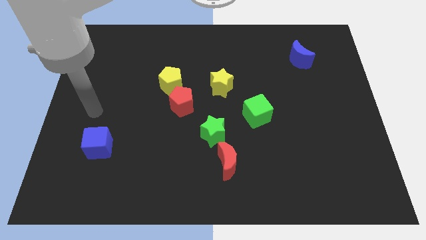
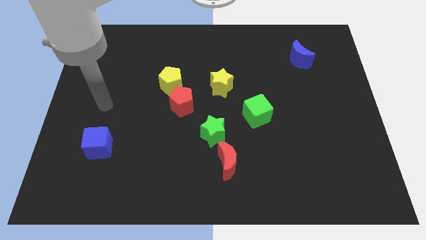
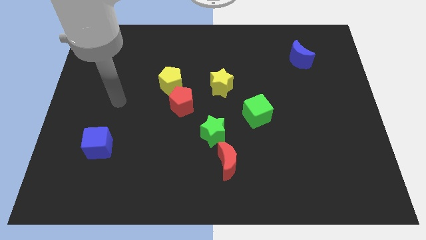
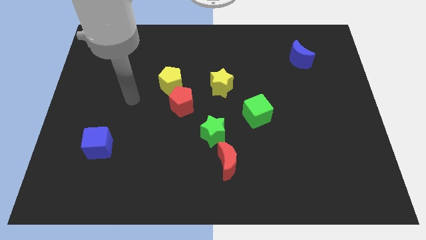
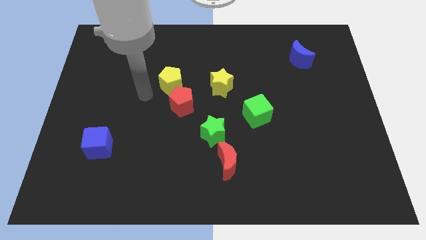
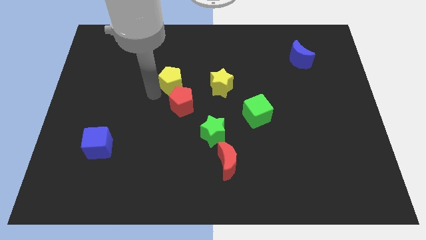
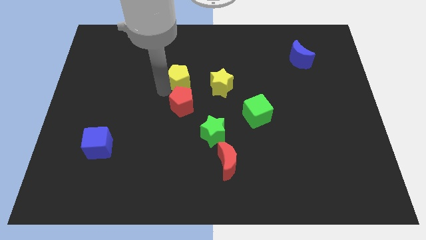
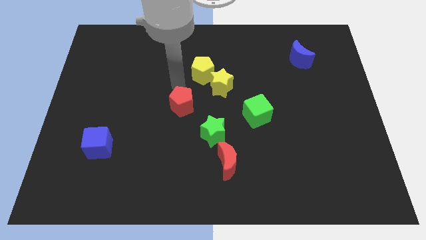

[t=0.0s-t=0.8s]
move the red pentagon away from the yellow pentagon

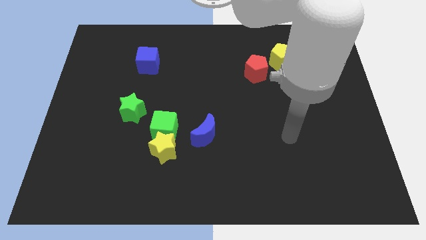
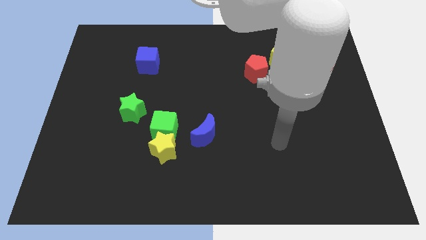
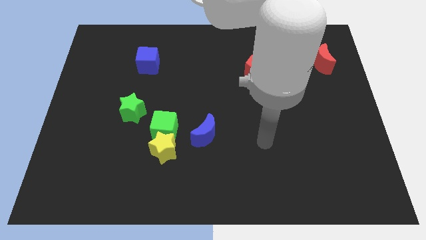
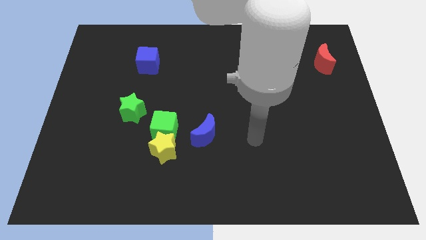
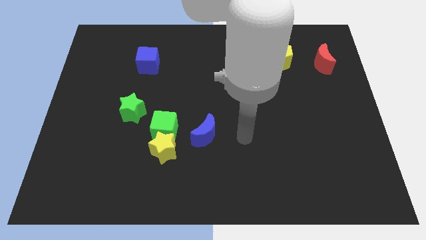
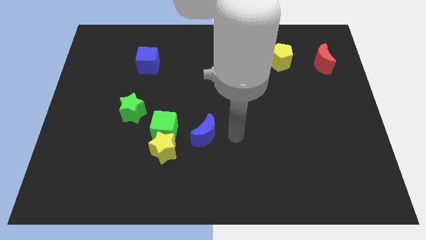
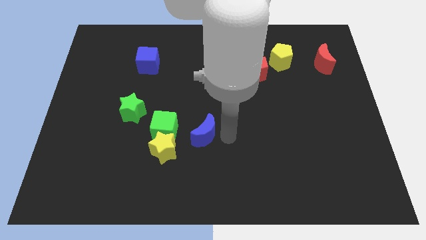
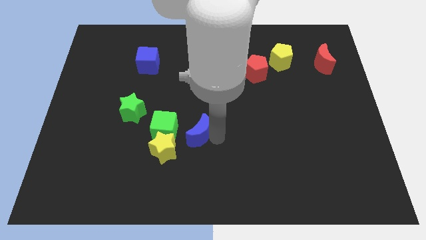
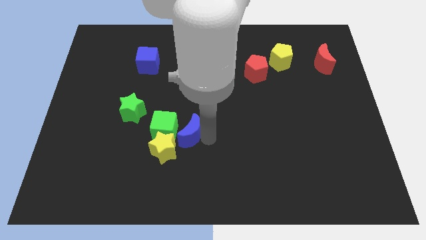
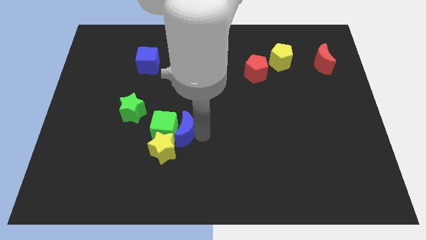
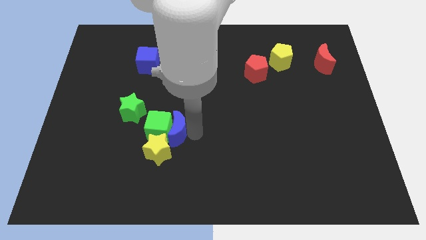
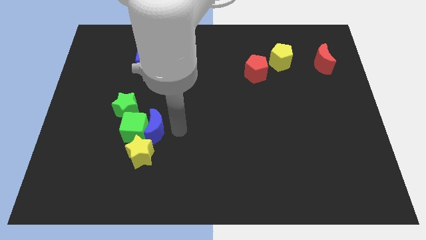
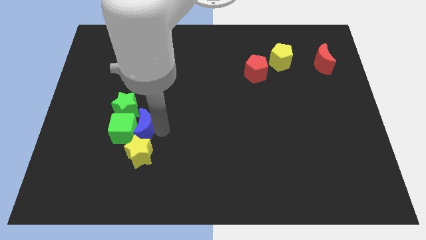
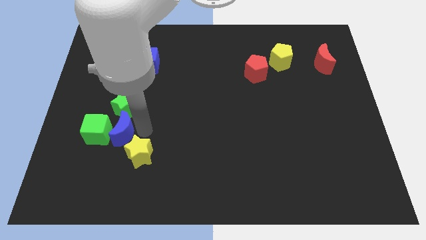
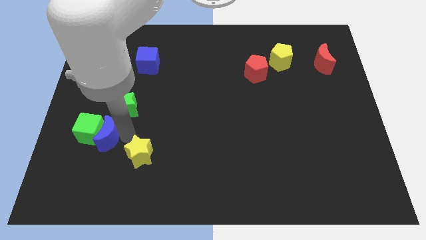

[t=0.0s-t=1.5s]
move the yellow star away from the green cube and blue moon

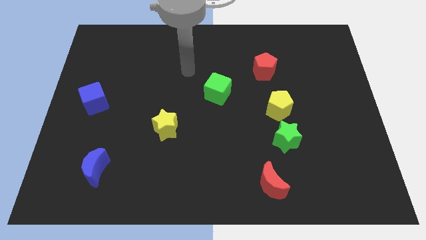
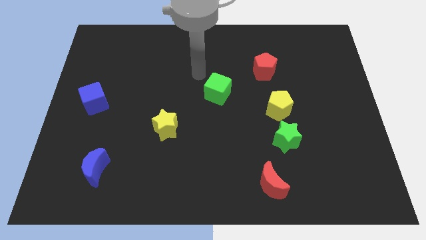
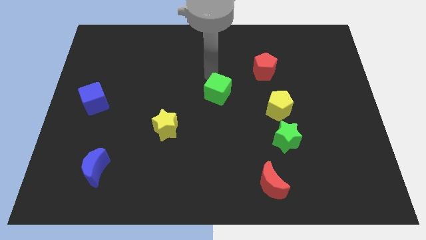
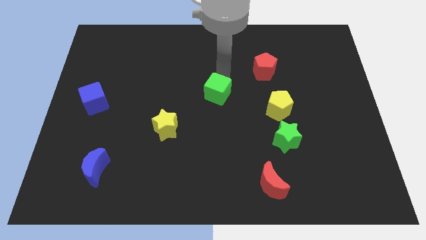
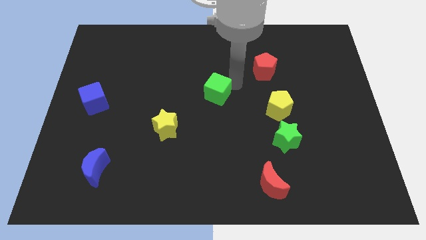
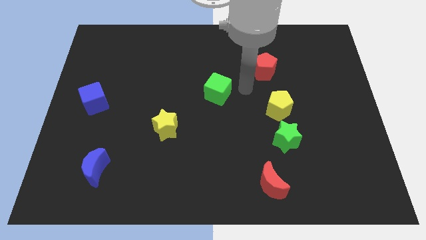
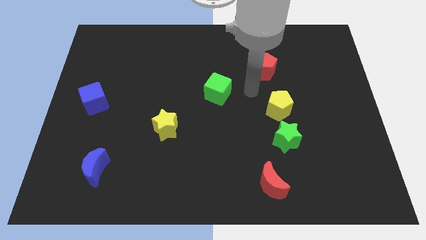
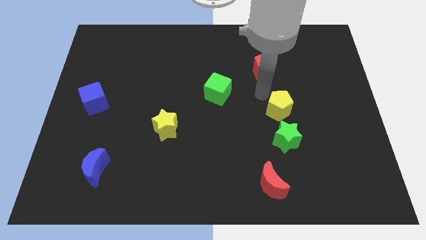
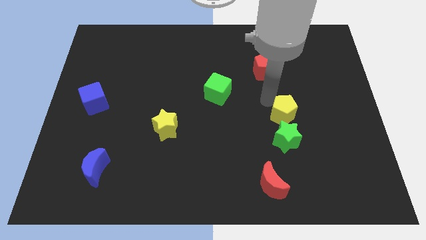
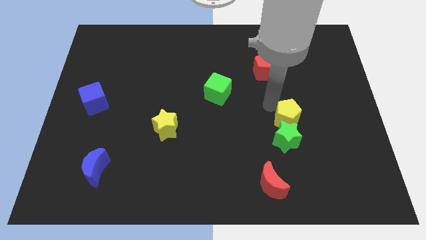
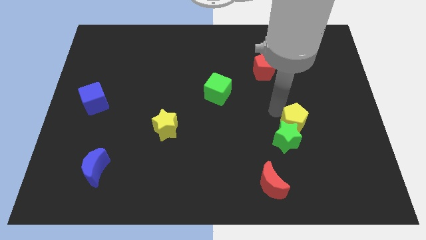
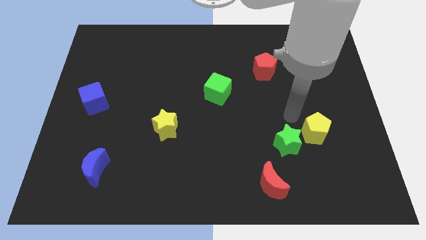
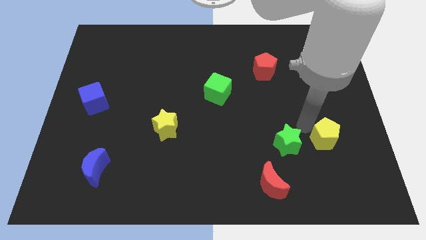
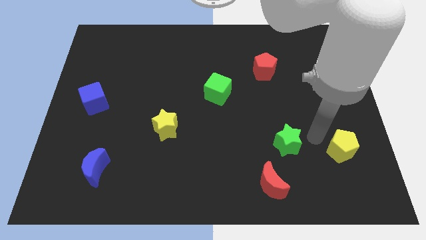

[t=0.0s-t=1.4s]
separate the green star from the yellow pentagon

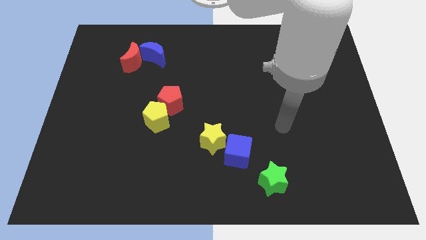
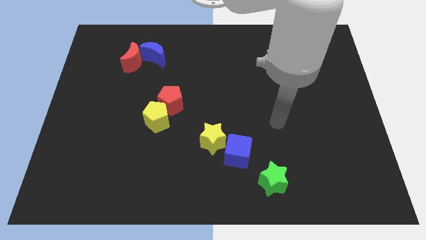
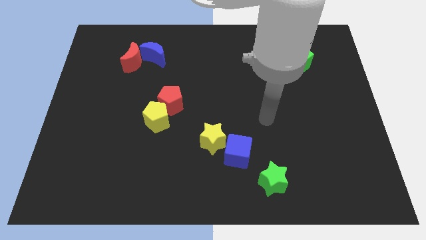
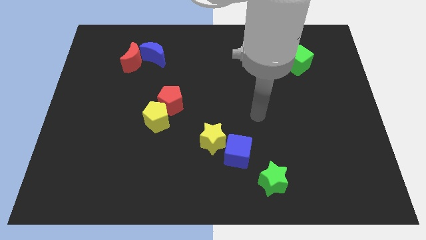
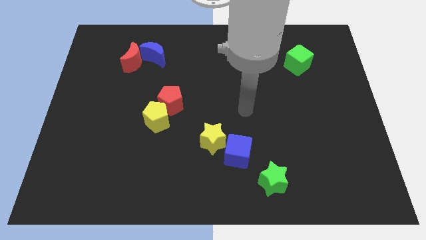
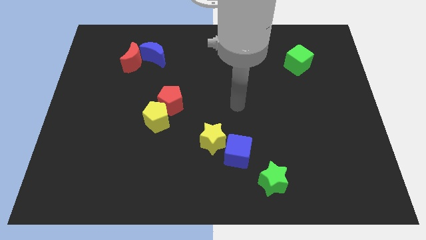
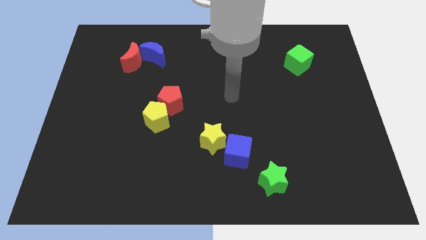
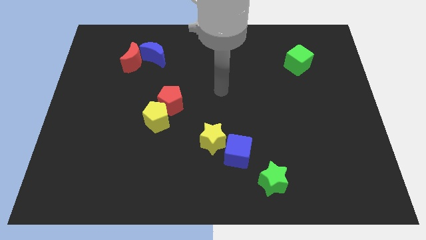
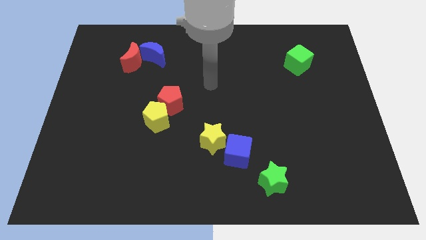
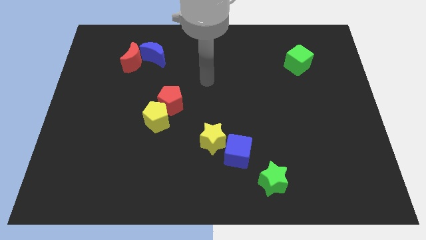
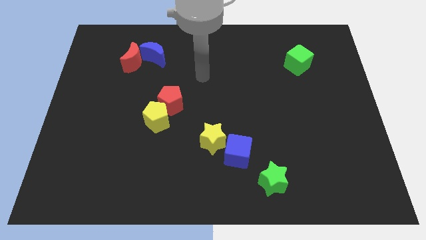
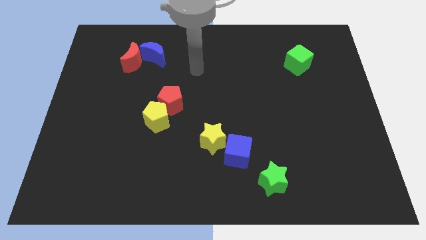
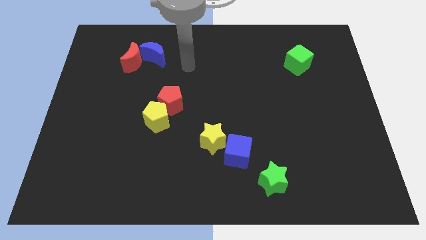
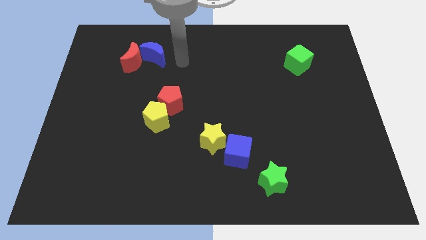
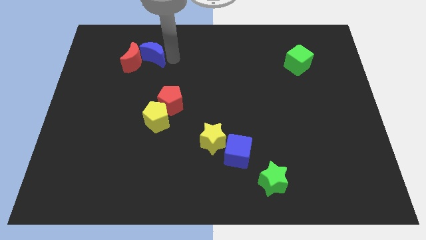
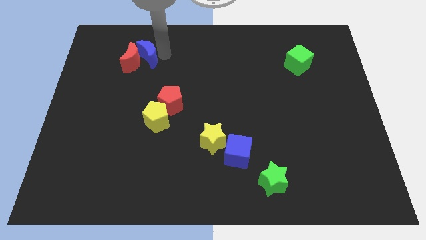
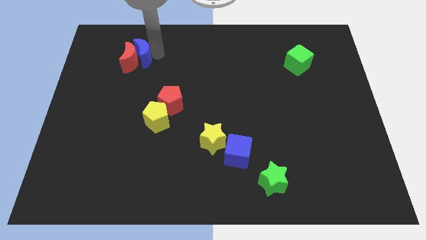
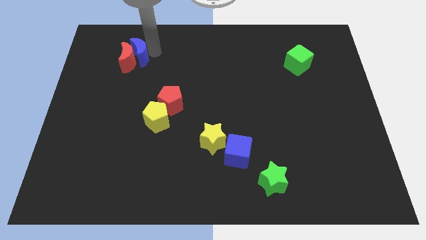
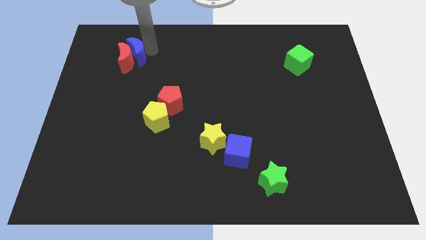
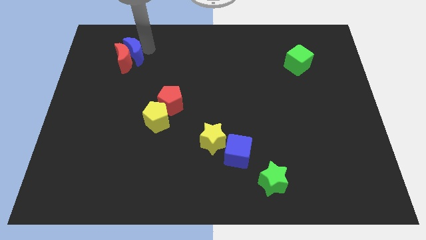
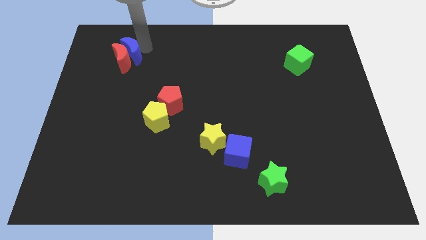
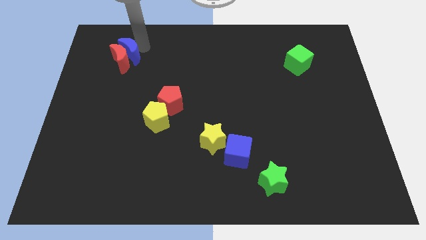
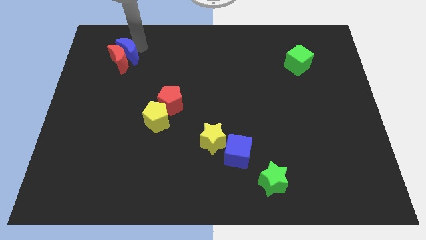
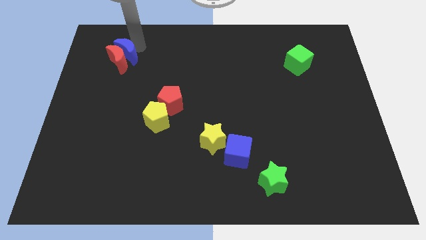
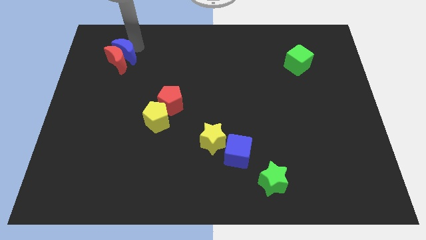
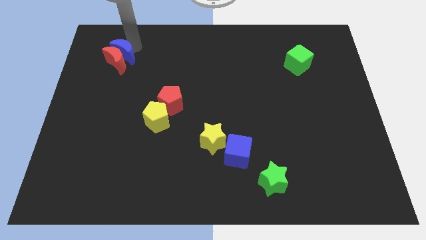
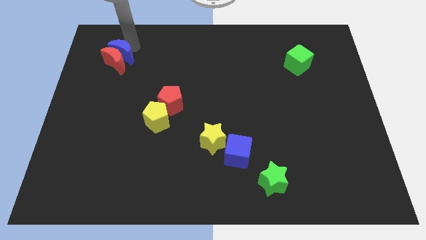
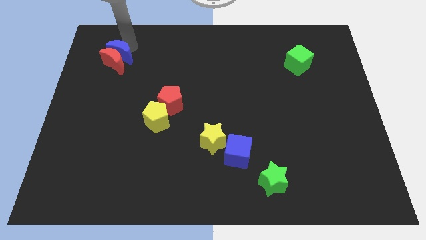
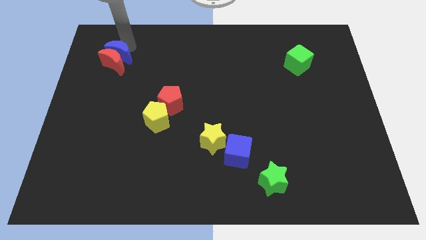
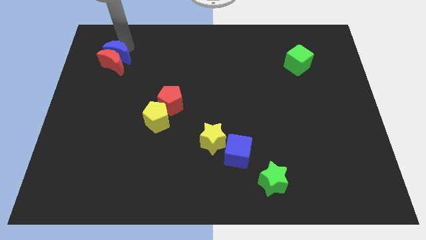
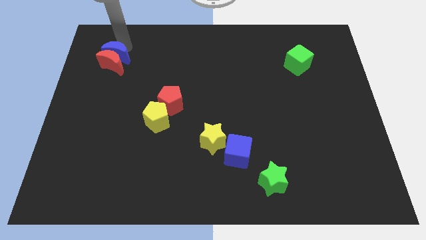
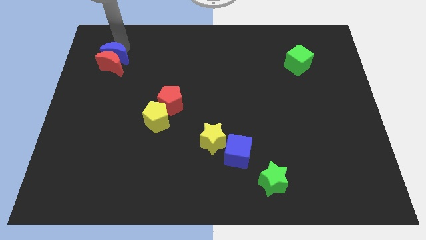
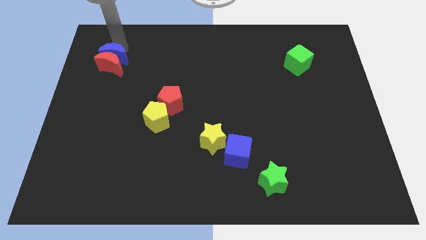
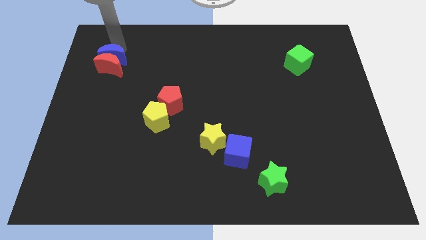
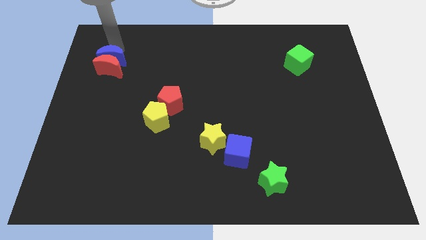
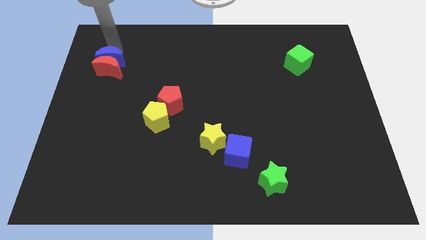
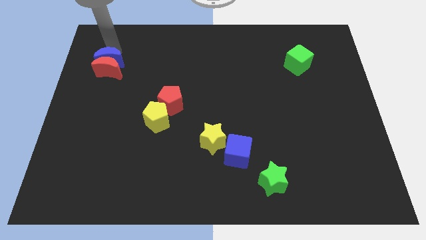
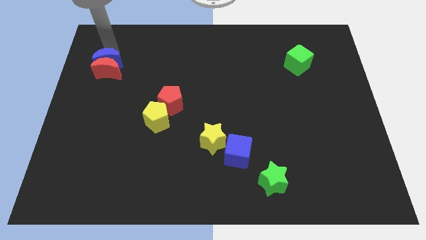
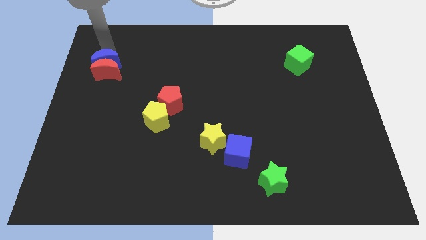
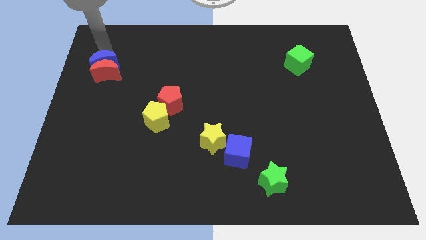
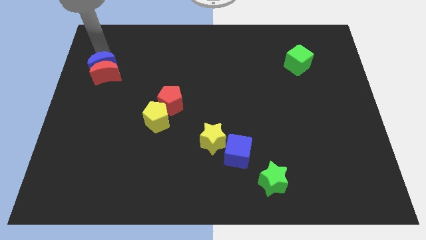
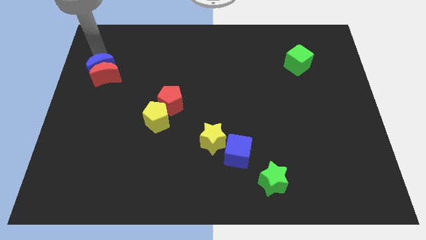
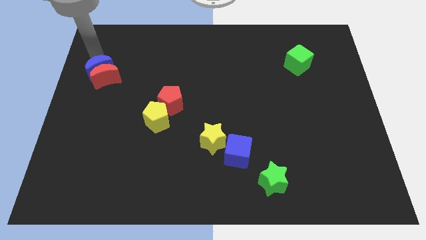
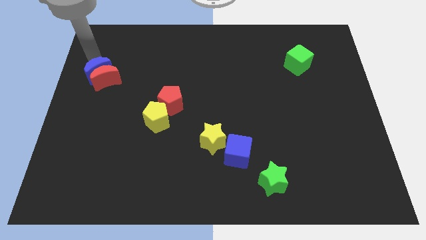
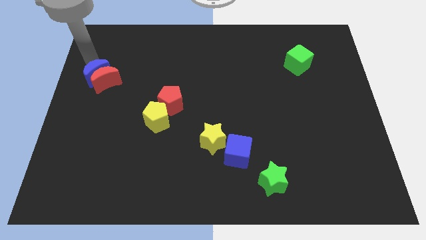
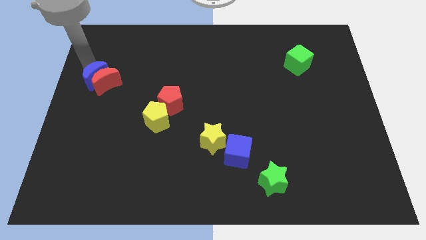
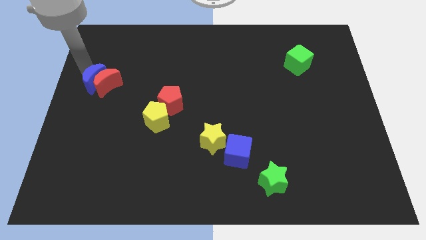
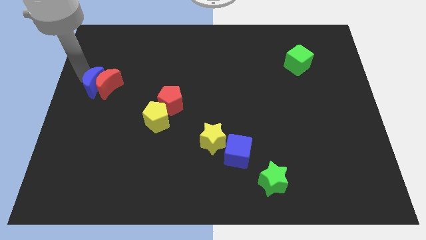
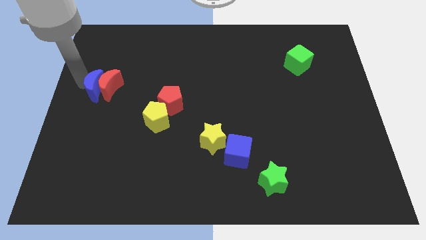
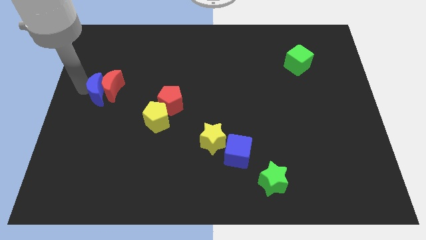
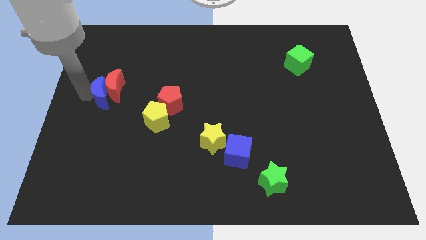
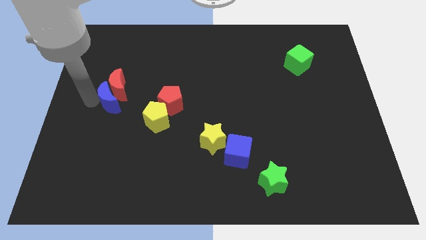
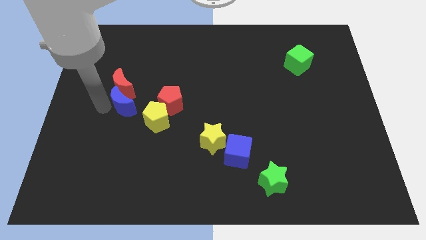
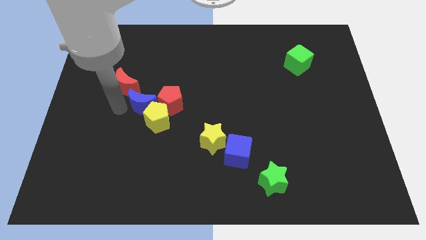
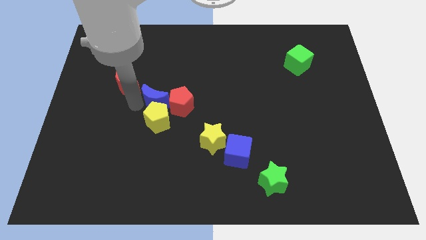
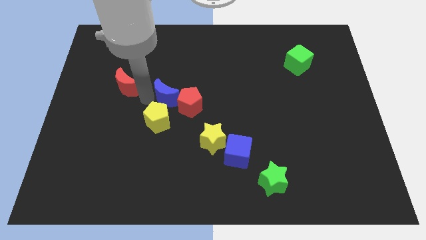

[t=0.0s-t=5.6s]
separate the red moon from the blue moon

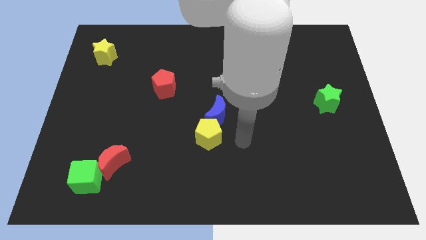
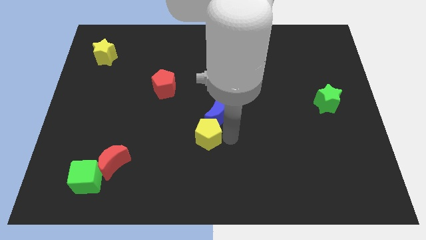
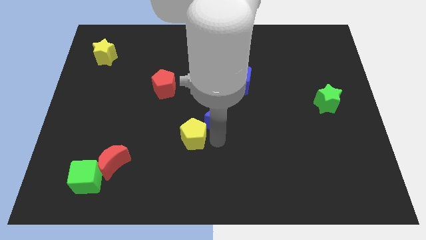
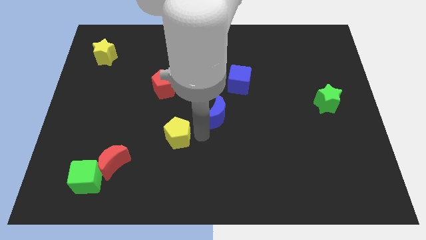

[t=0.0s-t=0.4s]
pull the blue moon apart from the yellow pentagon
